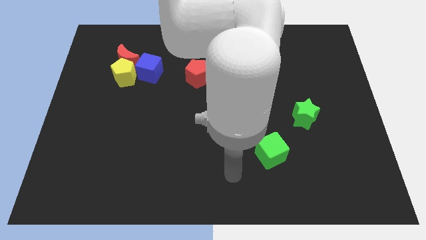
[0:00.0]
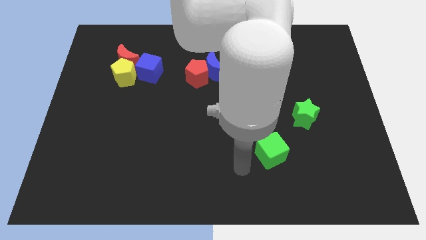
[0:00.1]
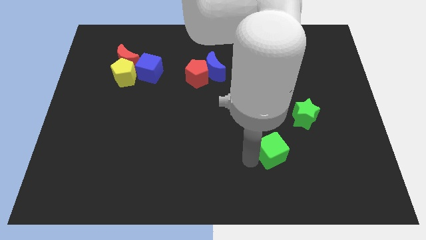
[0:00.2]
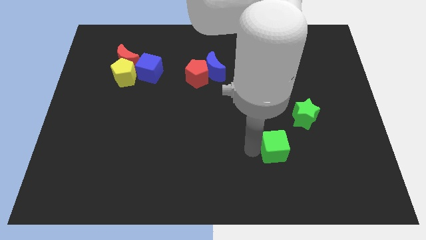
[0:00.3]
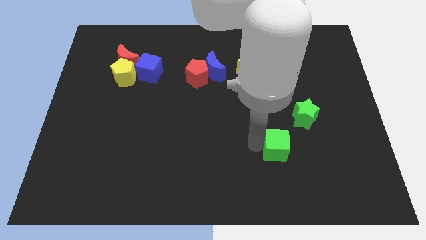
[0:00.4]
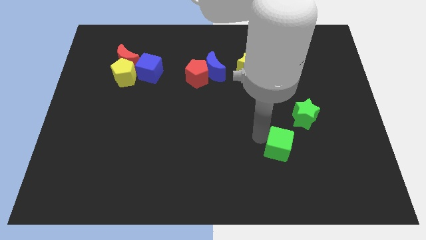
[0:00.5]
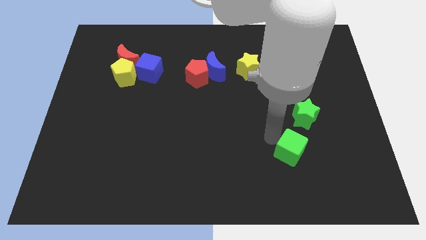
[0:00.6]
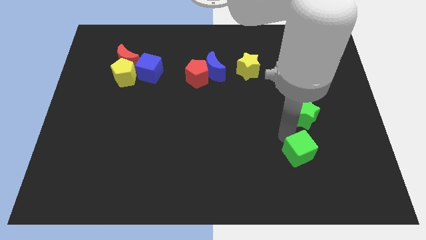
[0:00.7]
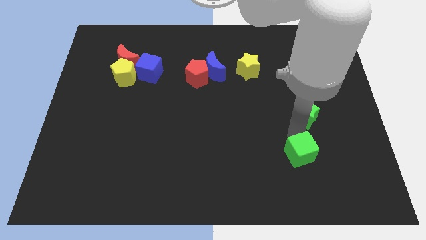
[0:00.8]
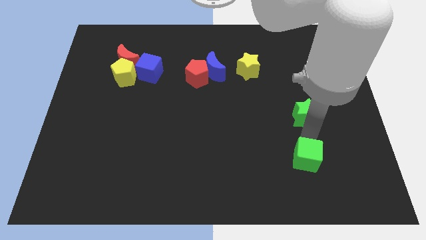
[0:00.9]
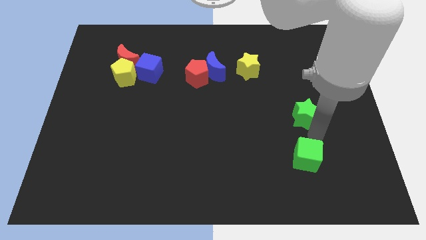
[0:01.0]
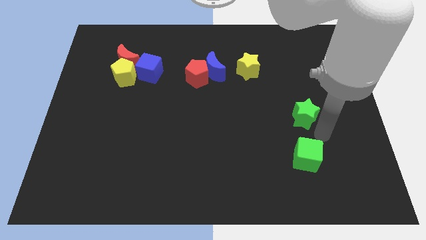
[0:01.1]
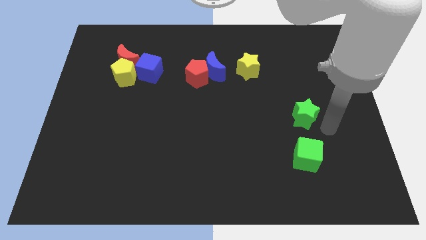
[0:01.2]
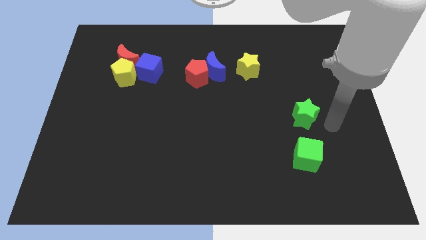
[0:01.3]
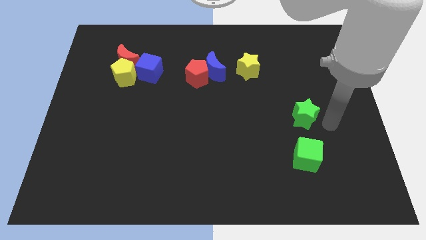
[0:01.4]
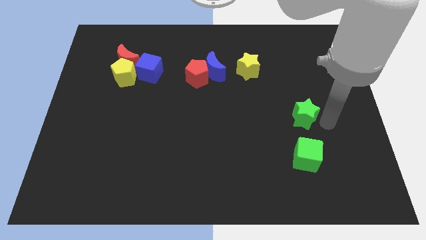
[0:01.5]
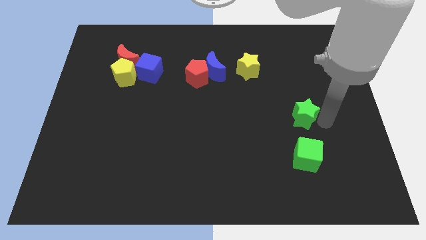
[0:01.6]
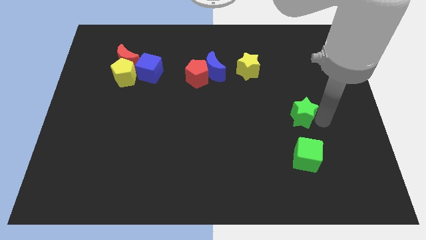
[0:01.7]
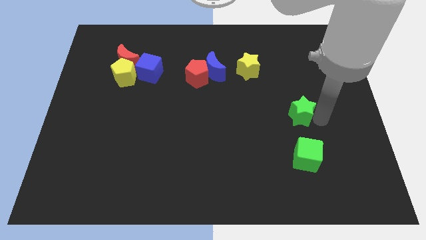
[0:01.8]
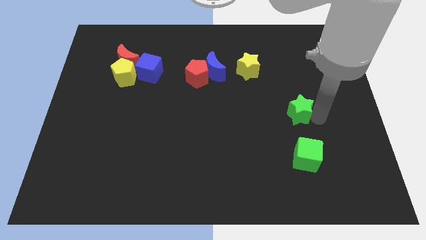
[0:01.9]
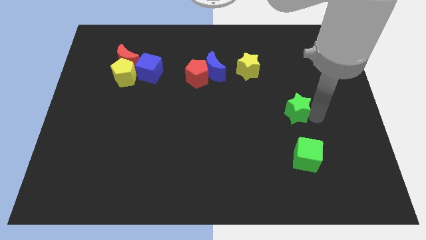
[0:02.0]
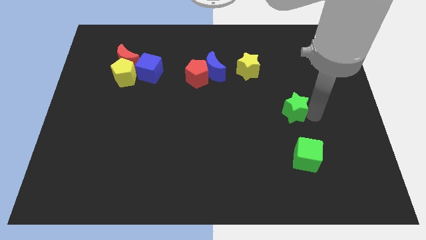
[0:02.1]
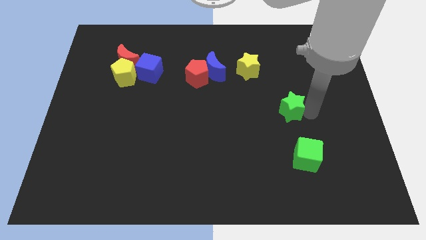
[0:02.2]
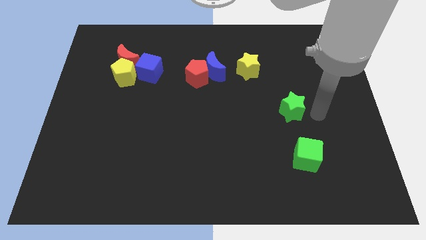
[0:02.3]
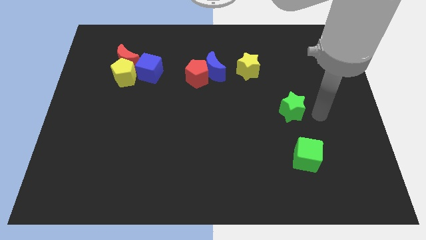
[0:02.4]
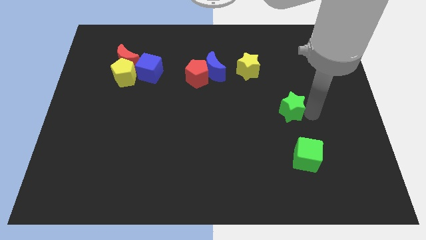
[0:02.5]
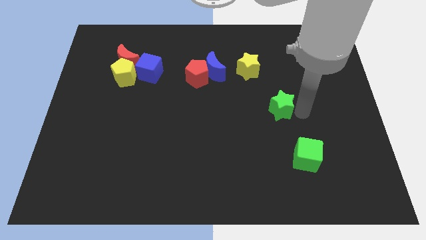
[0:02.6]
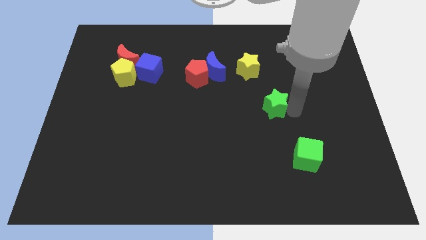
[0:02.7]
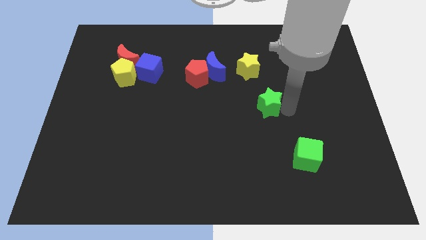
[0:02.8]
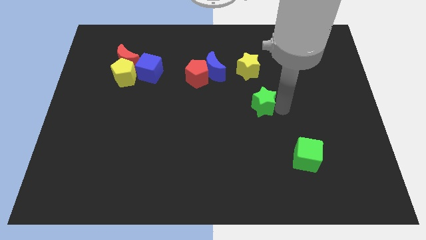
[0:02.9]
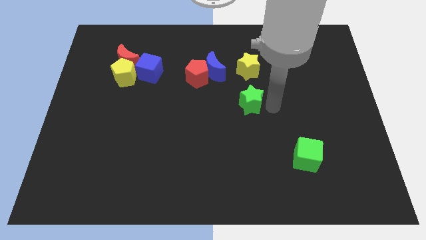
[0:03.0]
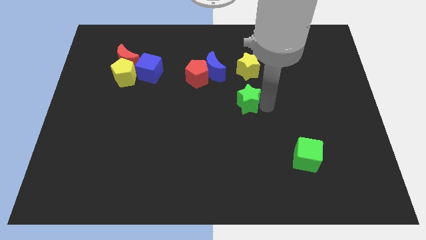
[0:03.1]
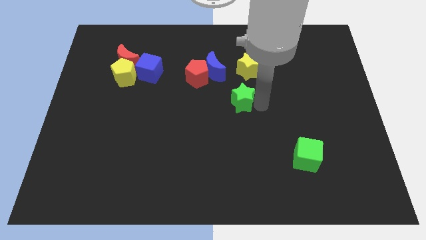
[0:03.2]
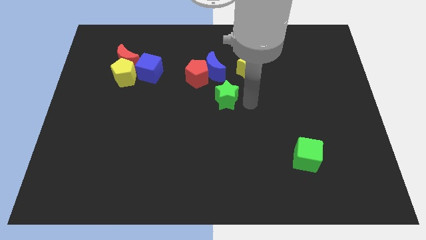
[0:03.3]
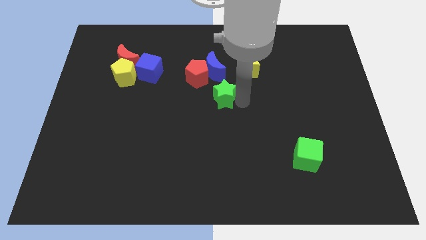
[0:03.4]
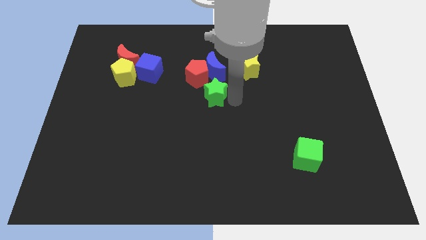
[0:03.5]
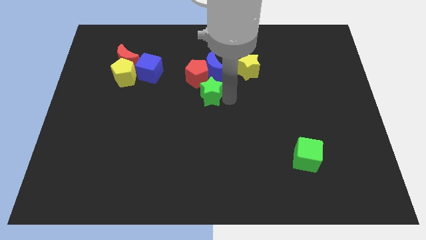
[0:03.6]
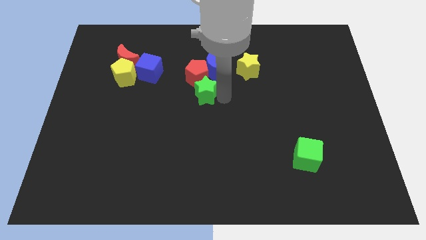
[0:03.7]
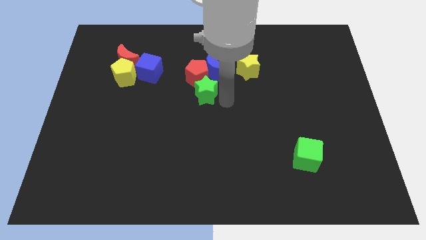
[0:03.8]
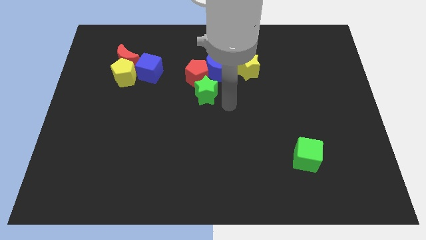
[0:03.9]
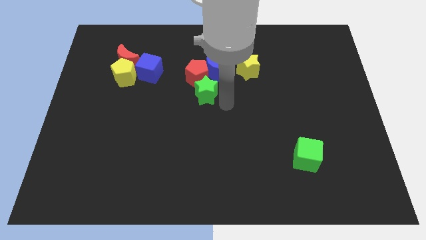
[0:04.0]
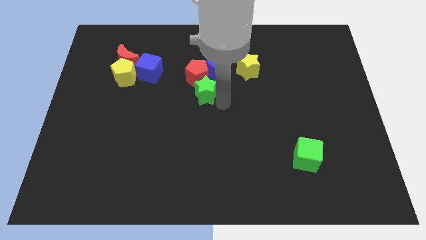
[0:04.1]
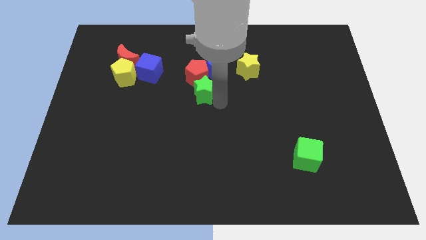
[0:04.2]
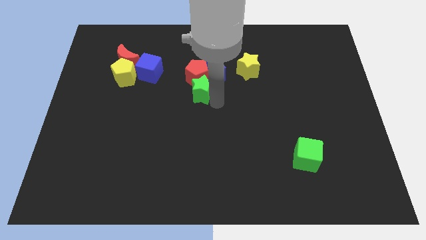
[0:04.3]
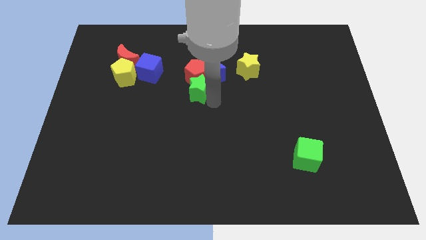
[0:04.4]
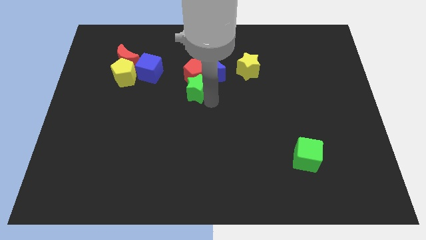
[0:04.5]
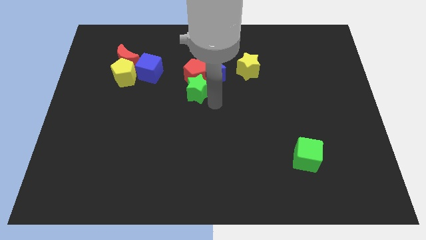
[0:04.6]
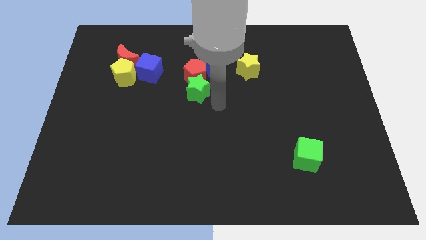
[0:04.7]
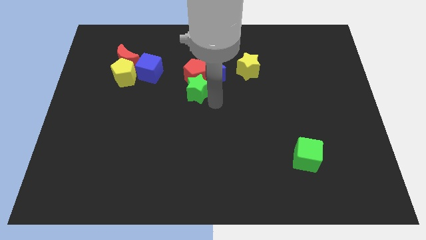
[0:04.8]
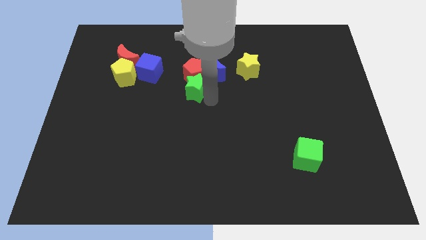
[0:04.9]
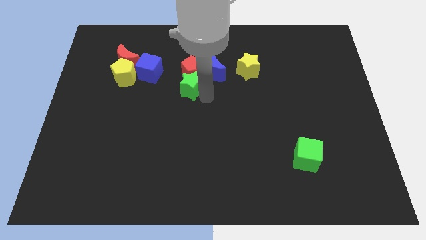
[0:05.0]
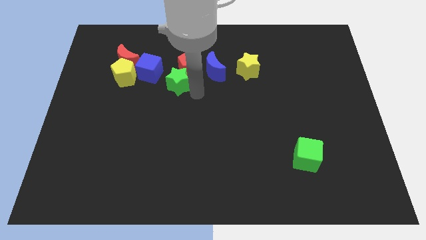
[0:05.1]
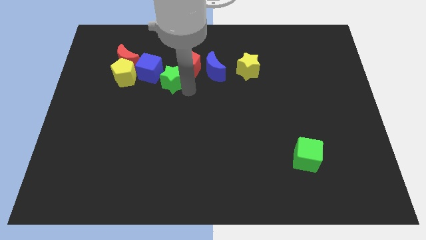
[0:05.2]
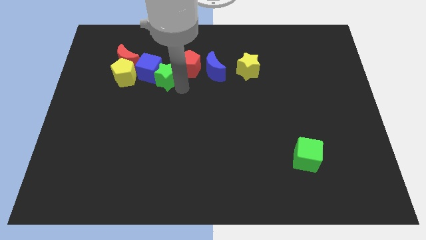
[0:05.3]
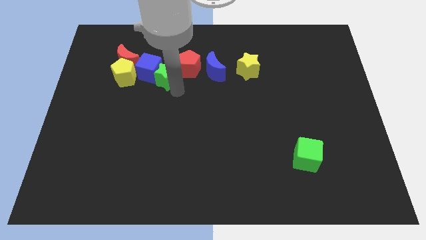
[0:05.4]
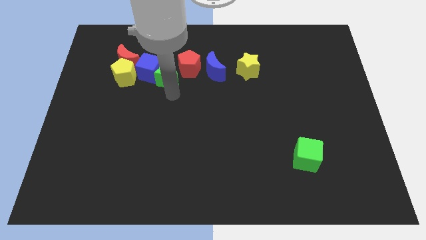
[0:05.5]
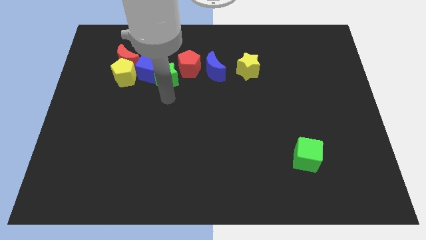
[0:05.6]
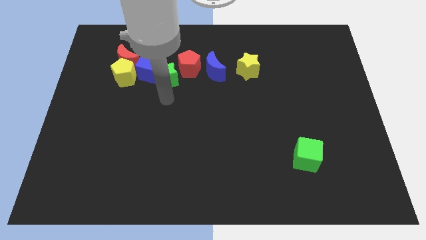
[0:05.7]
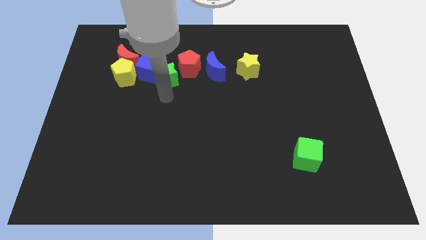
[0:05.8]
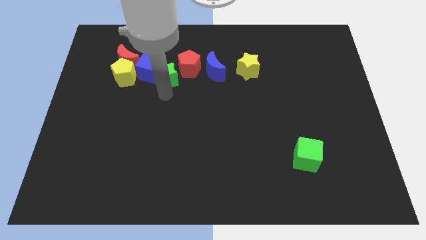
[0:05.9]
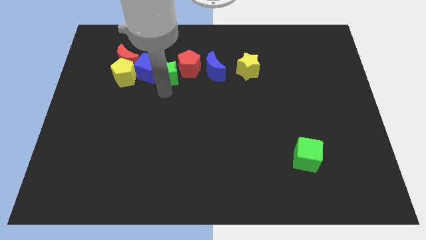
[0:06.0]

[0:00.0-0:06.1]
push the green star to the right side of the red moon
